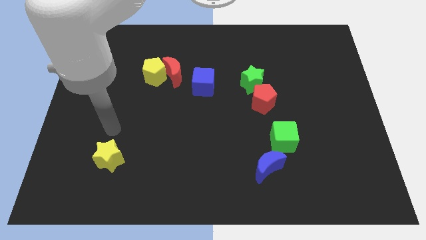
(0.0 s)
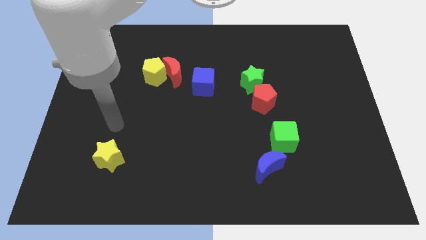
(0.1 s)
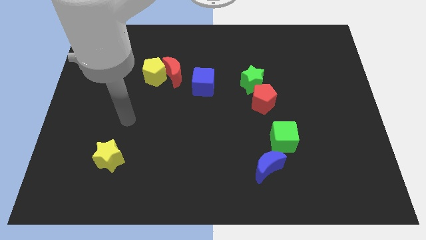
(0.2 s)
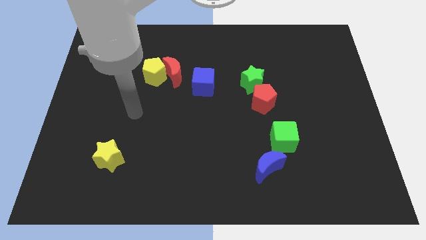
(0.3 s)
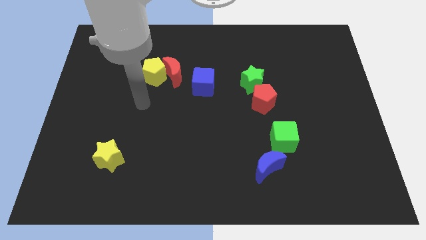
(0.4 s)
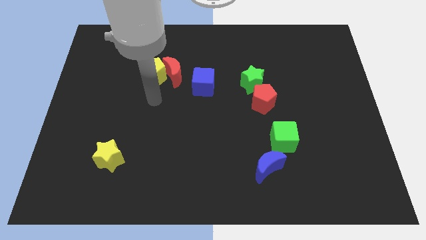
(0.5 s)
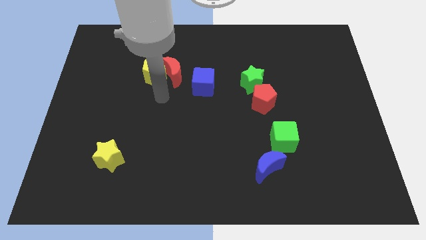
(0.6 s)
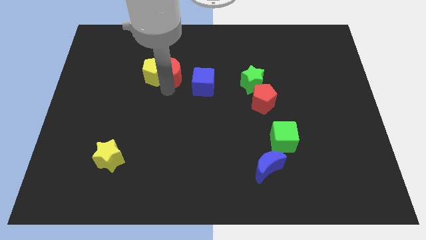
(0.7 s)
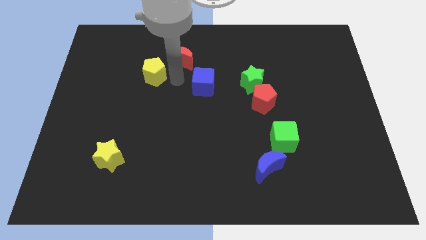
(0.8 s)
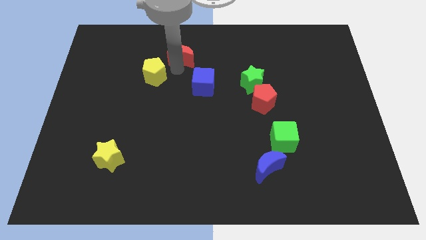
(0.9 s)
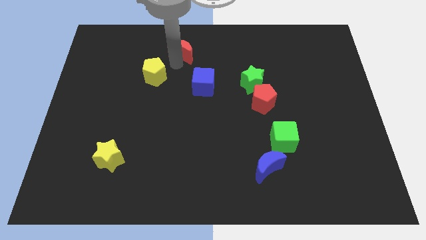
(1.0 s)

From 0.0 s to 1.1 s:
separate the yellow pentagon from the red moon

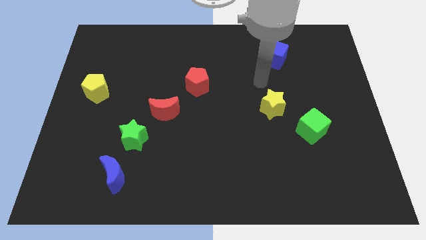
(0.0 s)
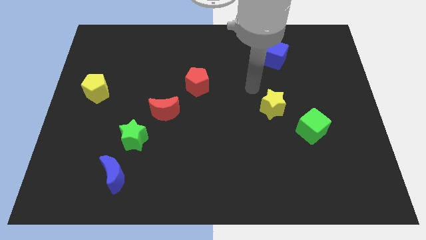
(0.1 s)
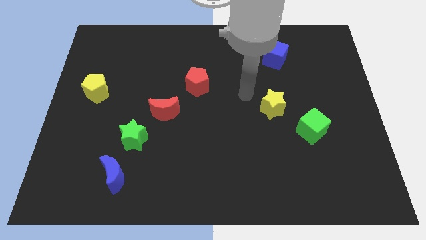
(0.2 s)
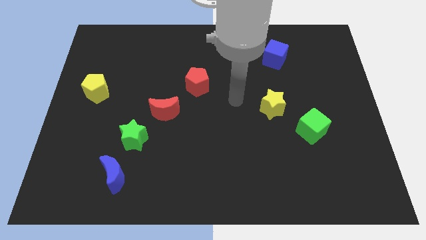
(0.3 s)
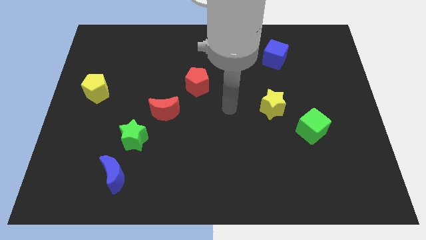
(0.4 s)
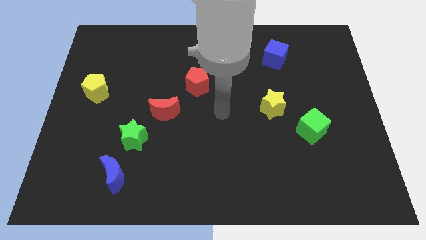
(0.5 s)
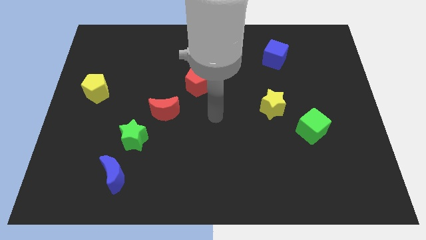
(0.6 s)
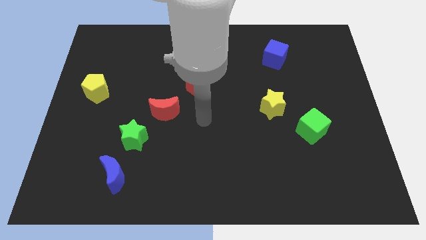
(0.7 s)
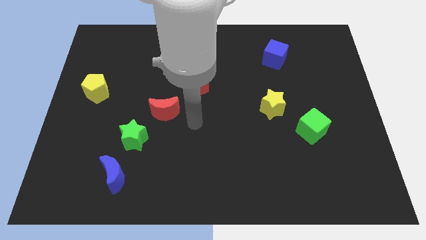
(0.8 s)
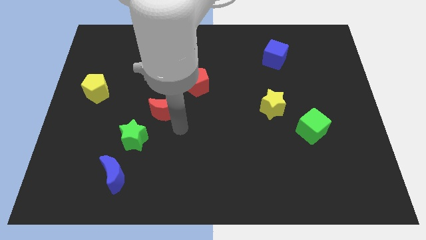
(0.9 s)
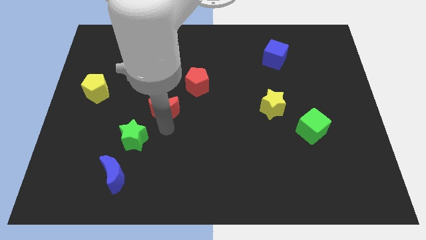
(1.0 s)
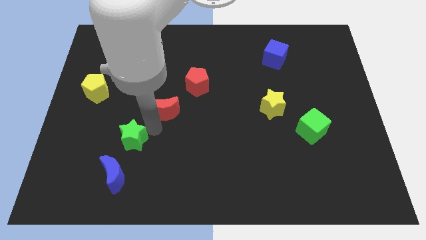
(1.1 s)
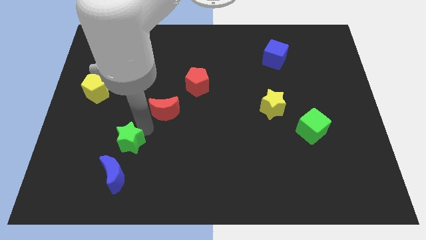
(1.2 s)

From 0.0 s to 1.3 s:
separate the red moon from the green star

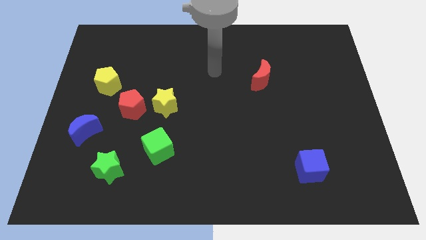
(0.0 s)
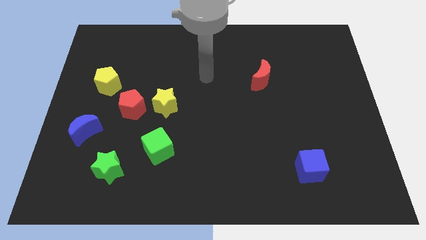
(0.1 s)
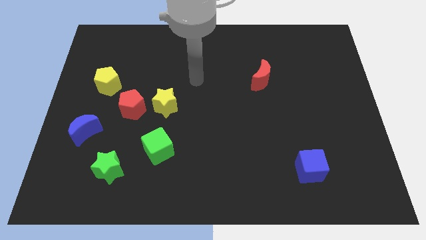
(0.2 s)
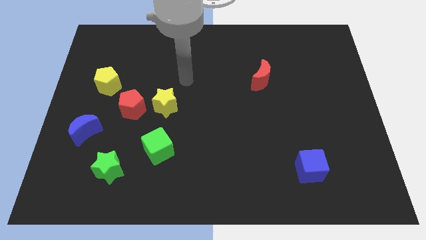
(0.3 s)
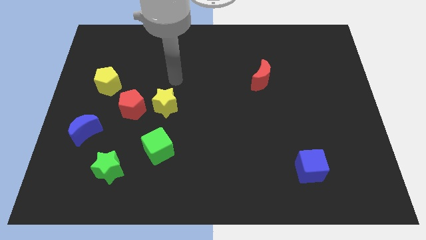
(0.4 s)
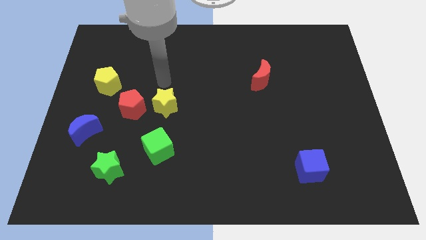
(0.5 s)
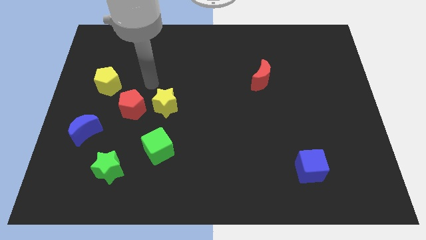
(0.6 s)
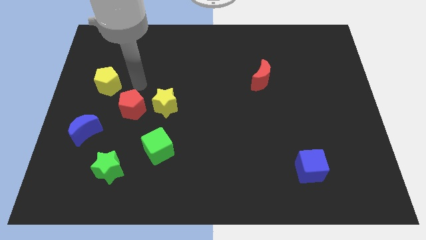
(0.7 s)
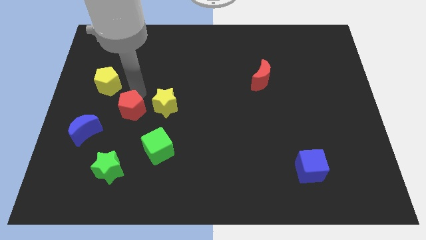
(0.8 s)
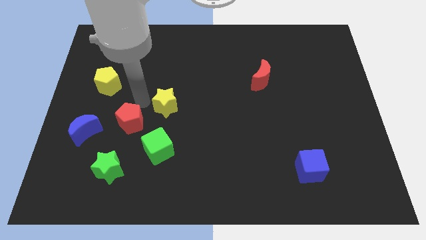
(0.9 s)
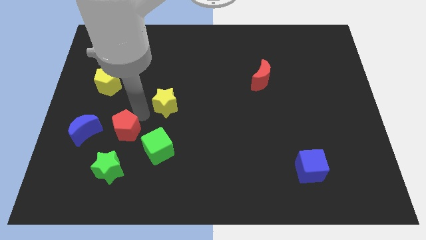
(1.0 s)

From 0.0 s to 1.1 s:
separate the yellow star from the red pentagon

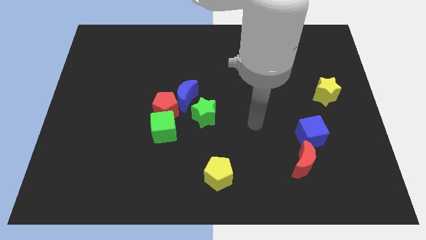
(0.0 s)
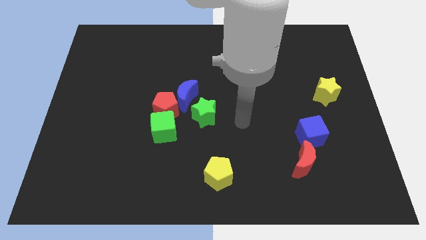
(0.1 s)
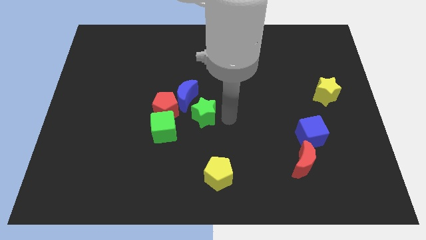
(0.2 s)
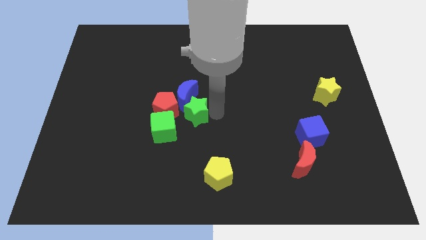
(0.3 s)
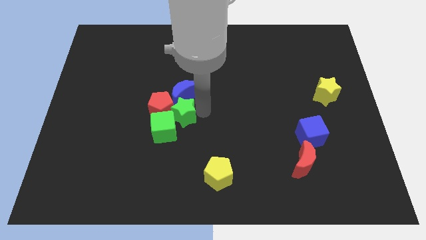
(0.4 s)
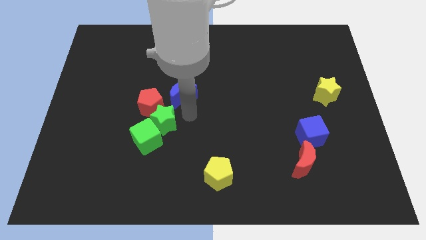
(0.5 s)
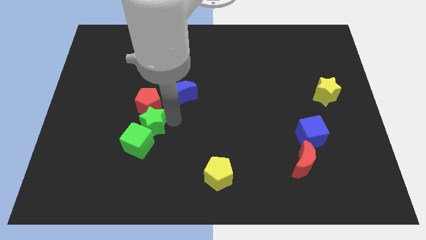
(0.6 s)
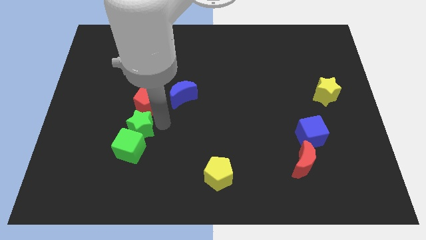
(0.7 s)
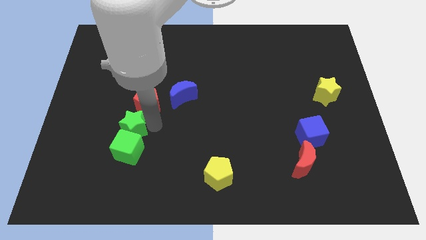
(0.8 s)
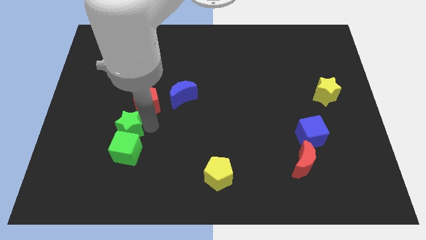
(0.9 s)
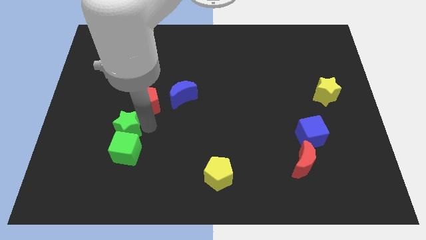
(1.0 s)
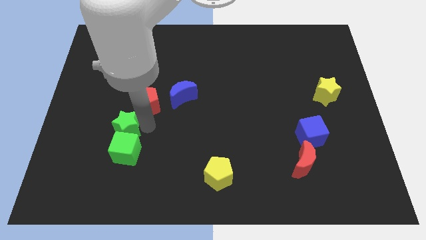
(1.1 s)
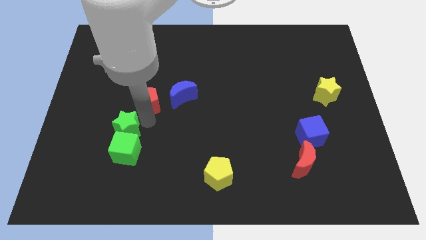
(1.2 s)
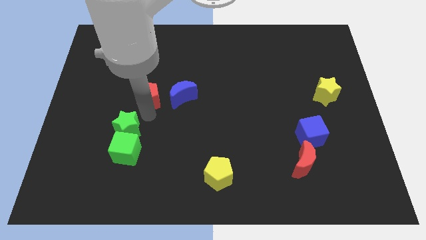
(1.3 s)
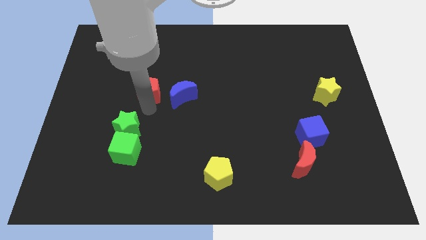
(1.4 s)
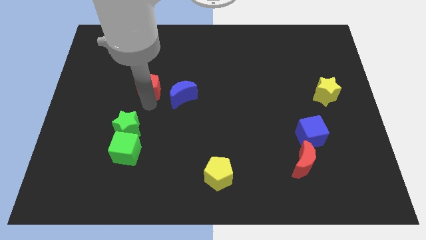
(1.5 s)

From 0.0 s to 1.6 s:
move the red pentagon away from the blue moon, green cube, and green star

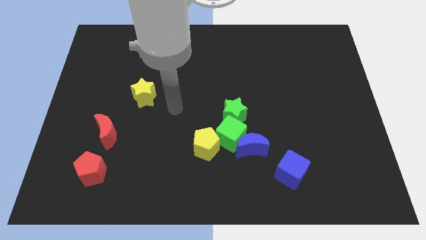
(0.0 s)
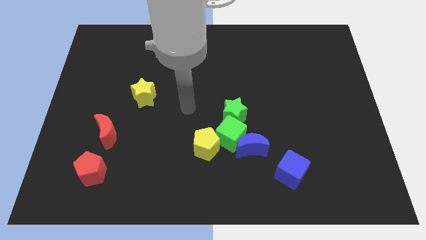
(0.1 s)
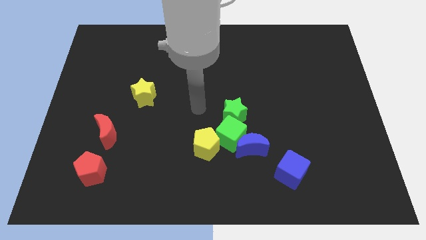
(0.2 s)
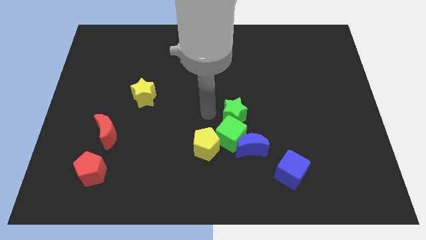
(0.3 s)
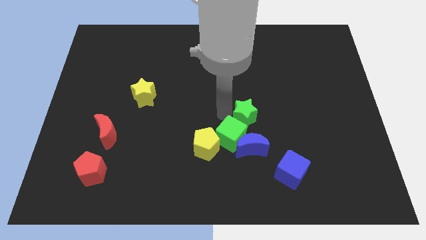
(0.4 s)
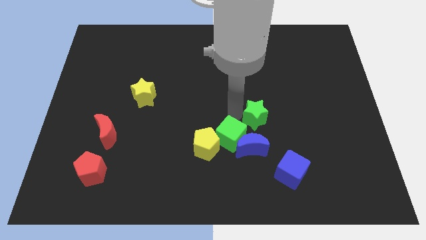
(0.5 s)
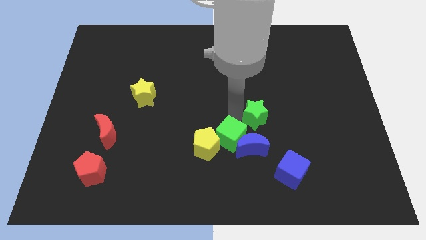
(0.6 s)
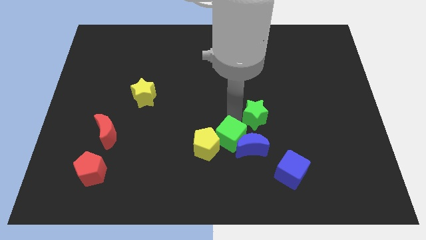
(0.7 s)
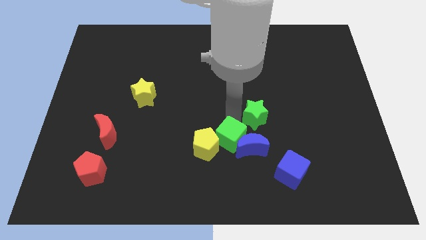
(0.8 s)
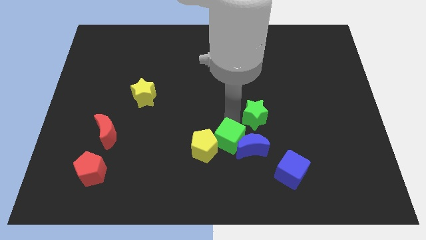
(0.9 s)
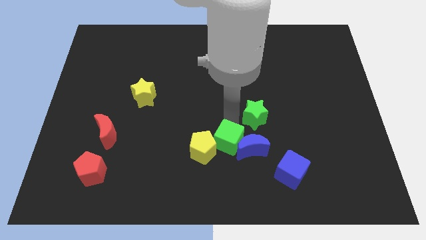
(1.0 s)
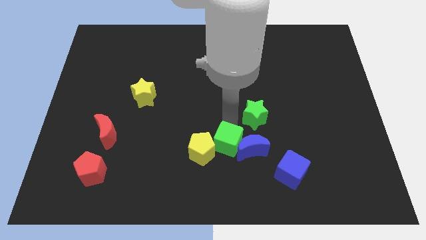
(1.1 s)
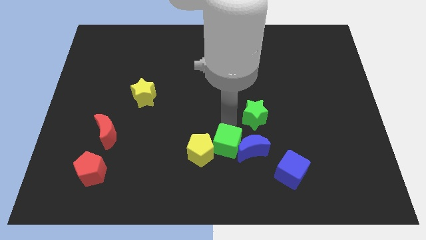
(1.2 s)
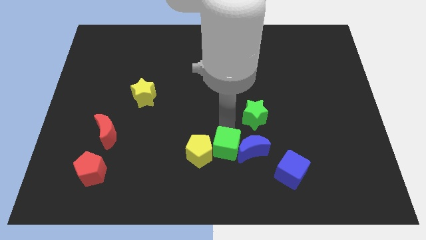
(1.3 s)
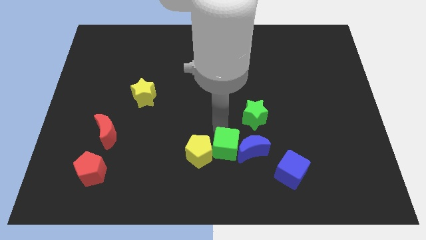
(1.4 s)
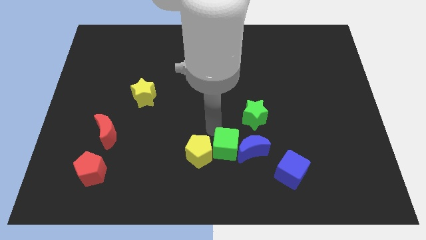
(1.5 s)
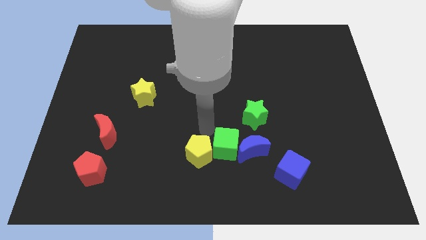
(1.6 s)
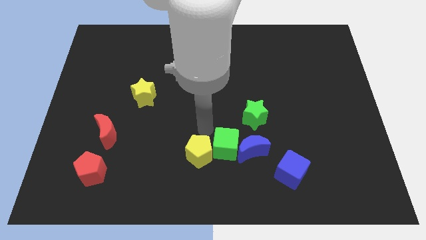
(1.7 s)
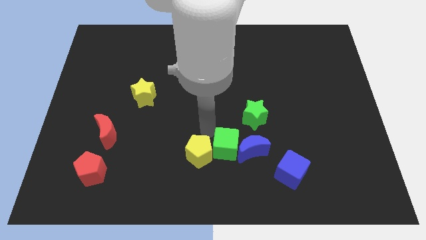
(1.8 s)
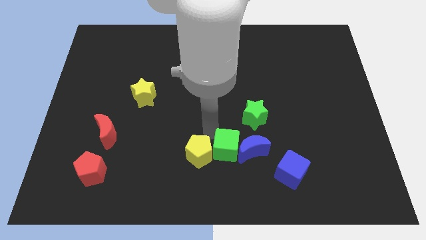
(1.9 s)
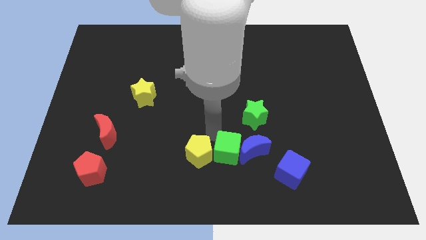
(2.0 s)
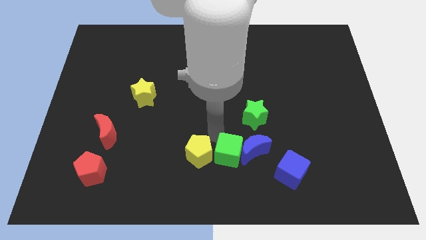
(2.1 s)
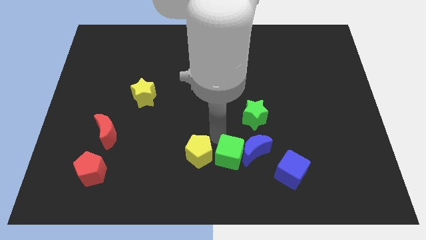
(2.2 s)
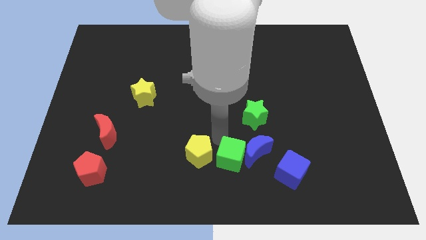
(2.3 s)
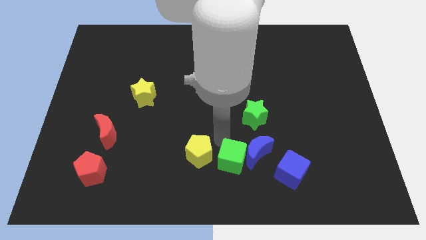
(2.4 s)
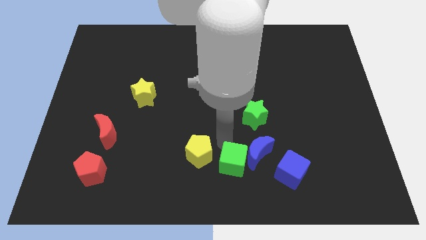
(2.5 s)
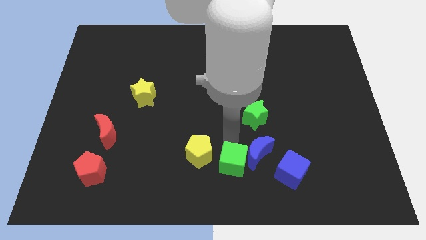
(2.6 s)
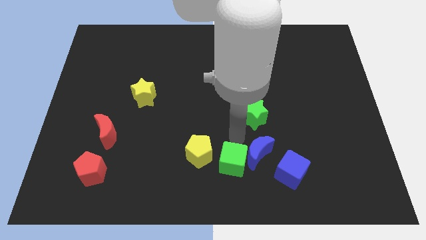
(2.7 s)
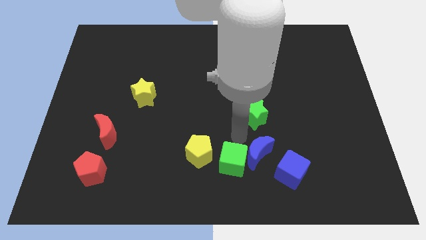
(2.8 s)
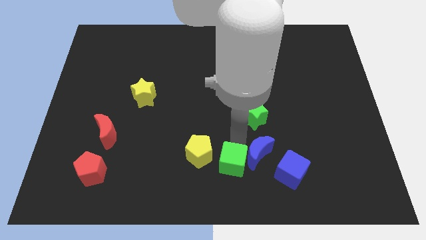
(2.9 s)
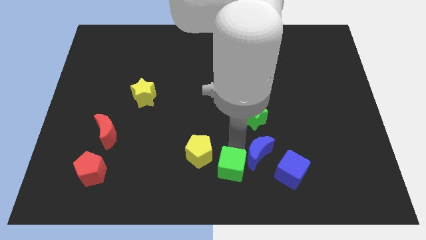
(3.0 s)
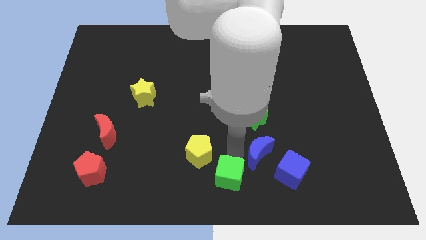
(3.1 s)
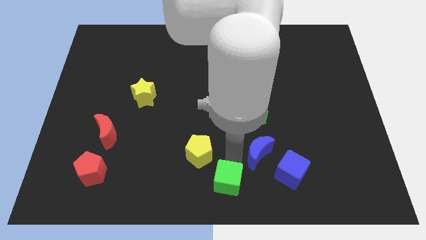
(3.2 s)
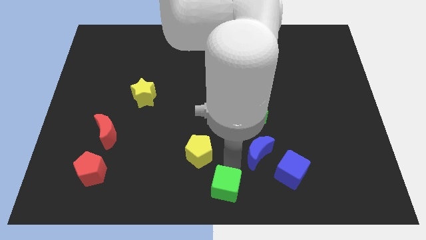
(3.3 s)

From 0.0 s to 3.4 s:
pull the green cube apart from the group

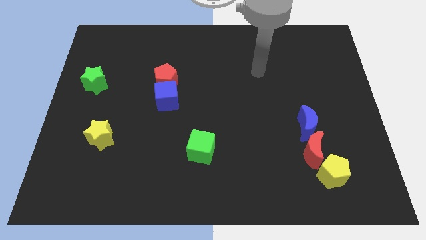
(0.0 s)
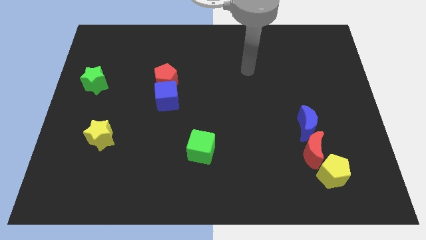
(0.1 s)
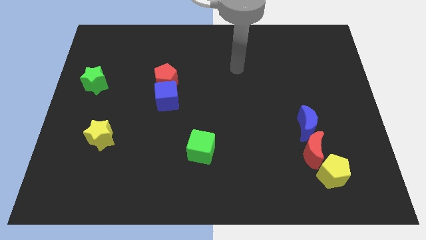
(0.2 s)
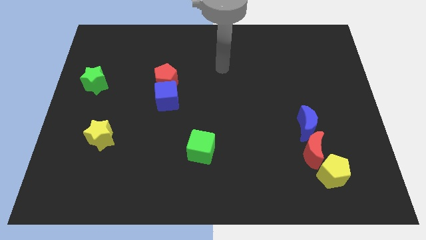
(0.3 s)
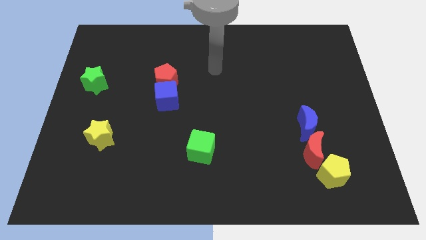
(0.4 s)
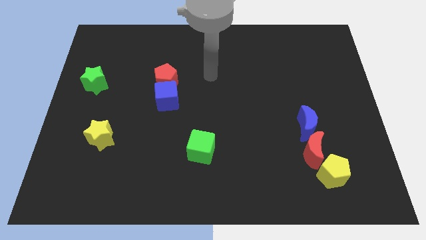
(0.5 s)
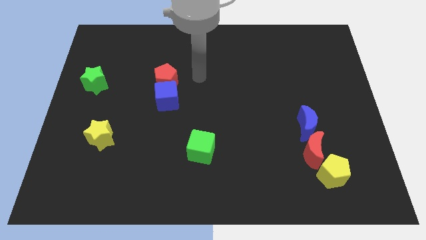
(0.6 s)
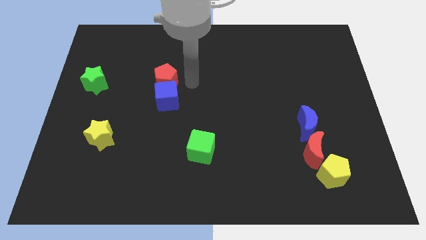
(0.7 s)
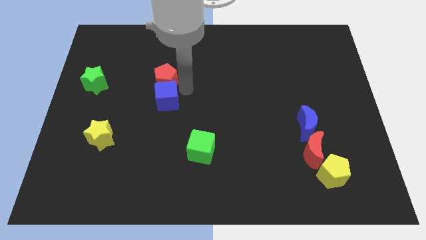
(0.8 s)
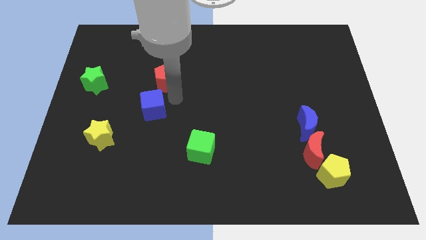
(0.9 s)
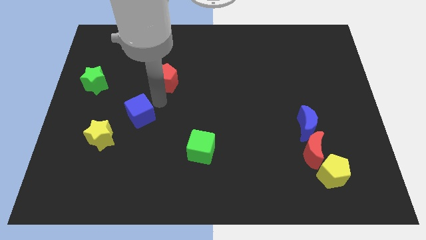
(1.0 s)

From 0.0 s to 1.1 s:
separate the red pentagon from the blue cube
